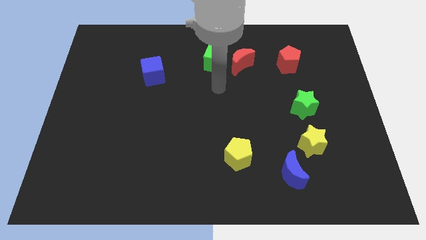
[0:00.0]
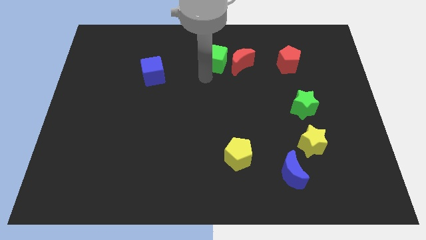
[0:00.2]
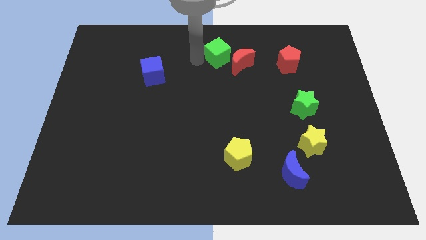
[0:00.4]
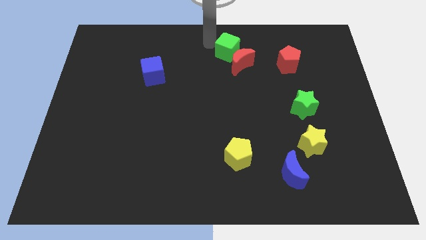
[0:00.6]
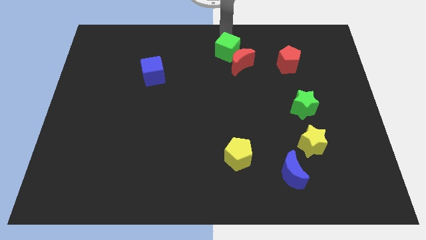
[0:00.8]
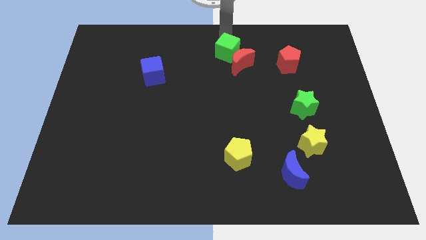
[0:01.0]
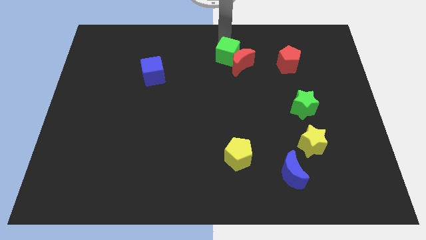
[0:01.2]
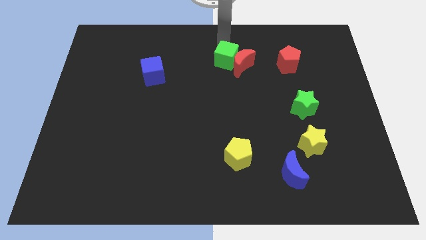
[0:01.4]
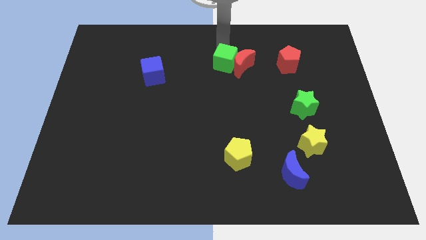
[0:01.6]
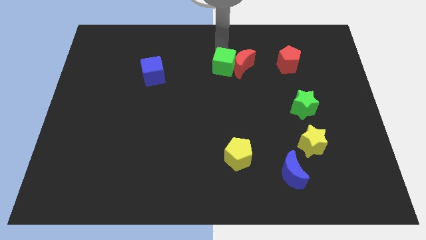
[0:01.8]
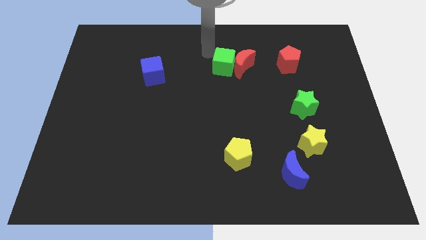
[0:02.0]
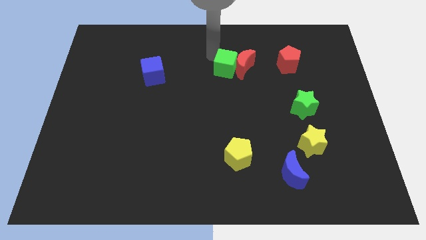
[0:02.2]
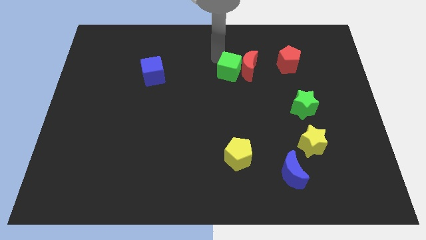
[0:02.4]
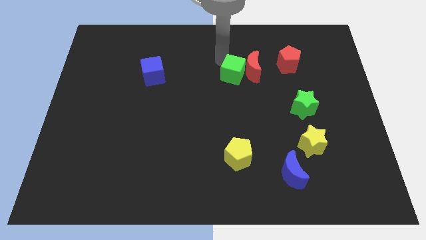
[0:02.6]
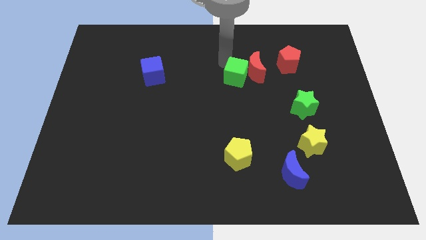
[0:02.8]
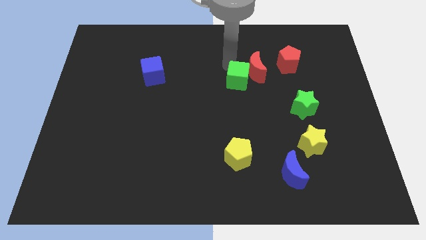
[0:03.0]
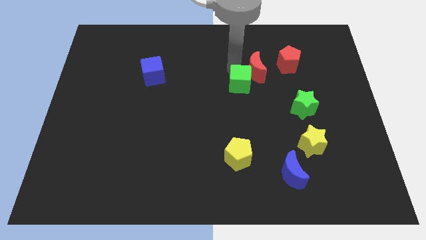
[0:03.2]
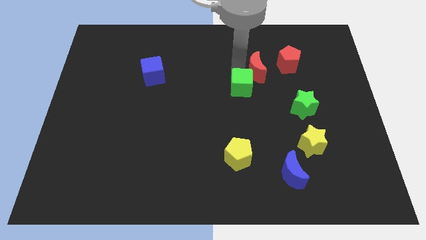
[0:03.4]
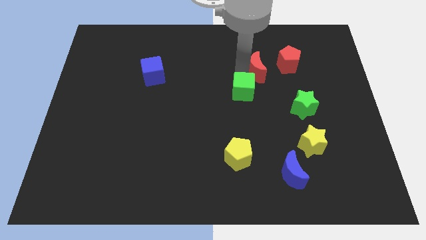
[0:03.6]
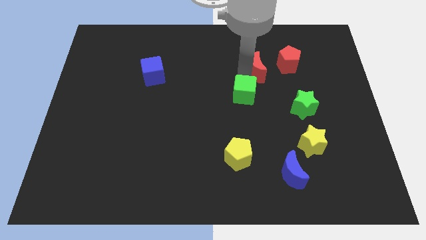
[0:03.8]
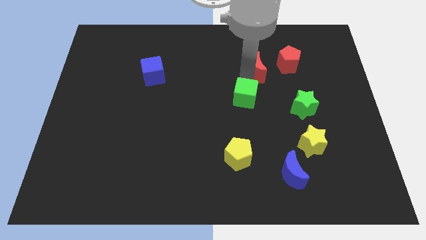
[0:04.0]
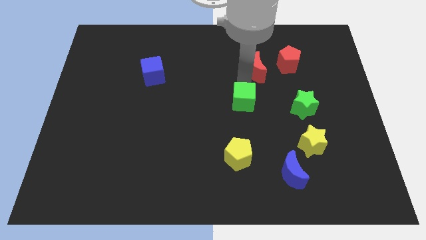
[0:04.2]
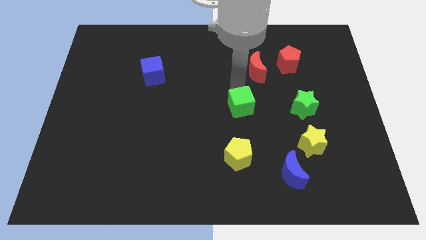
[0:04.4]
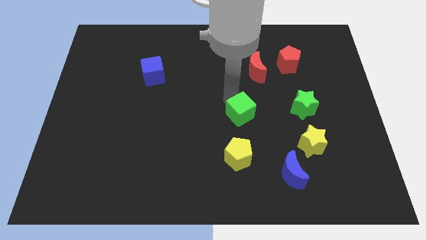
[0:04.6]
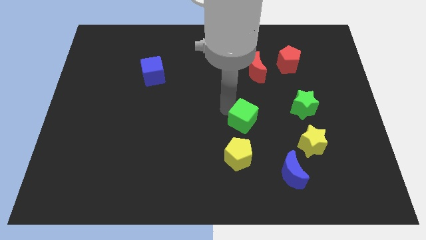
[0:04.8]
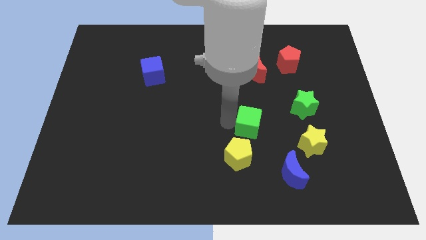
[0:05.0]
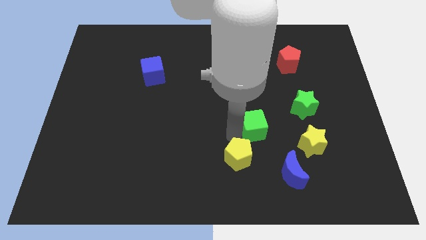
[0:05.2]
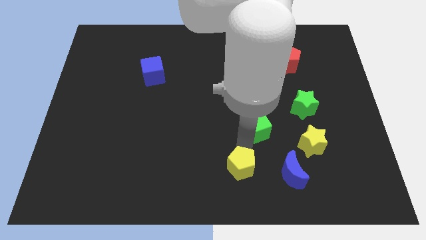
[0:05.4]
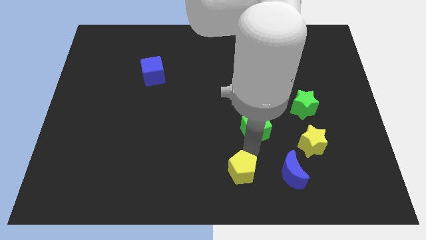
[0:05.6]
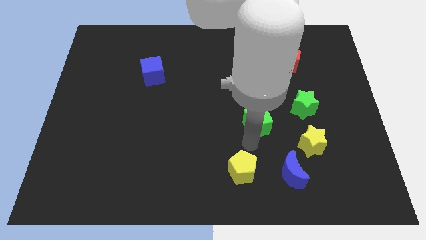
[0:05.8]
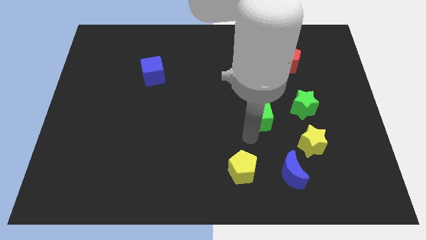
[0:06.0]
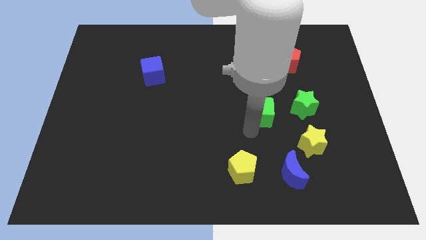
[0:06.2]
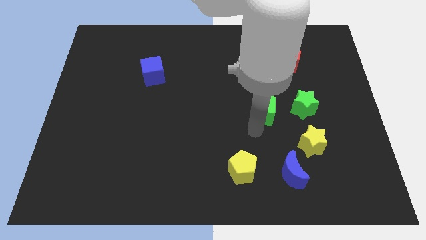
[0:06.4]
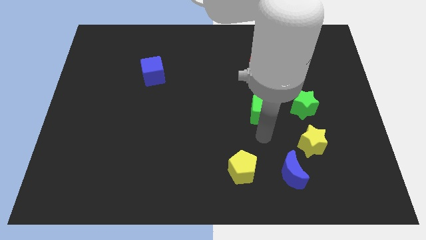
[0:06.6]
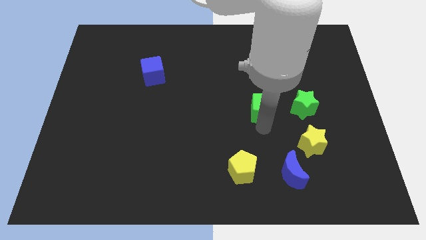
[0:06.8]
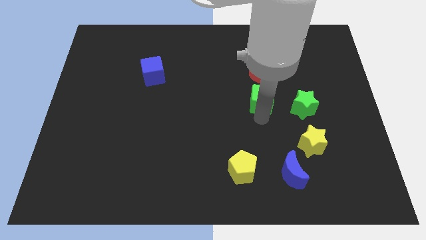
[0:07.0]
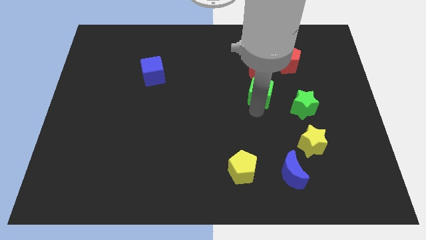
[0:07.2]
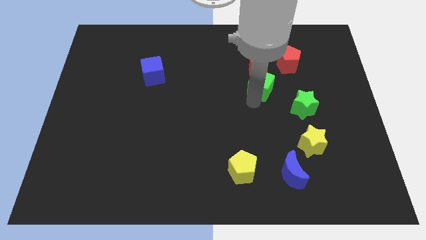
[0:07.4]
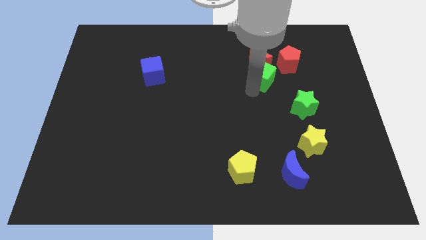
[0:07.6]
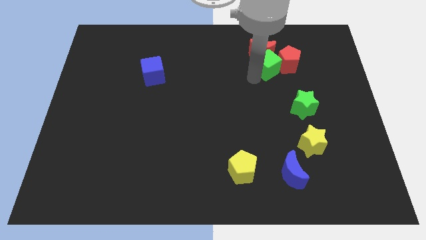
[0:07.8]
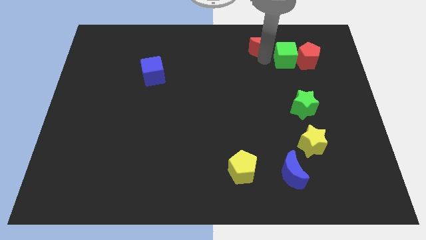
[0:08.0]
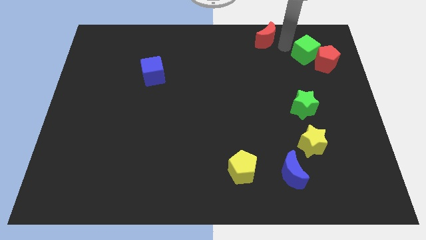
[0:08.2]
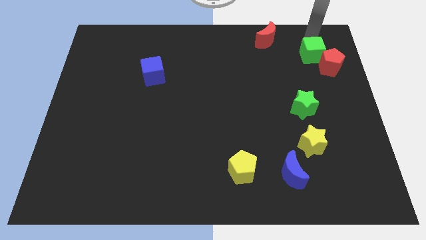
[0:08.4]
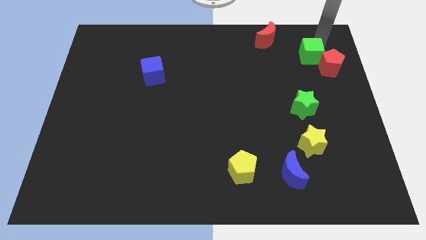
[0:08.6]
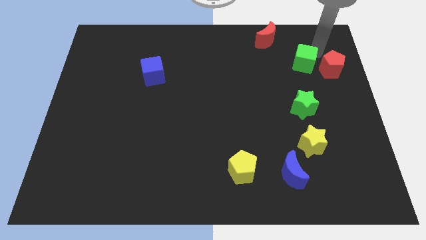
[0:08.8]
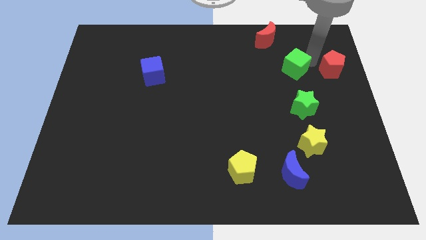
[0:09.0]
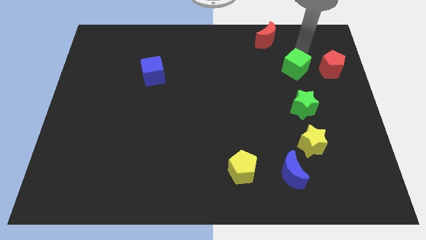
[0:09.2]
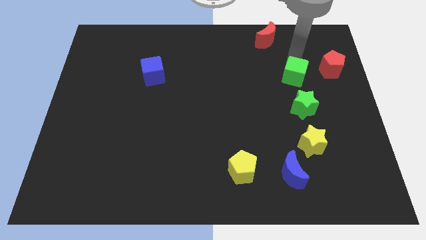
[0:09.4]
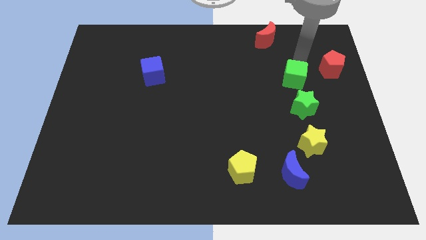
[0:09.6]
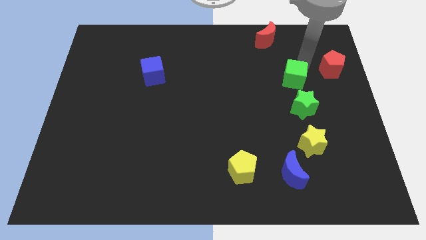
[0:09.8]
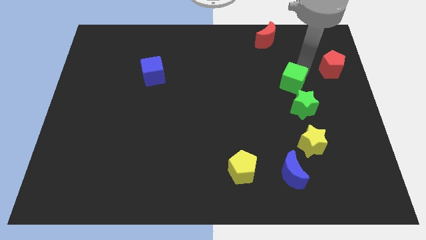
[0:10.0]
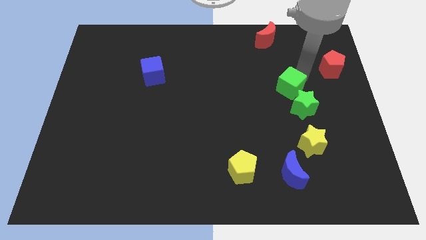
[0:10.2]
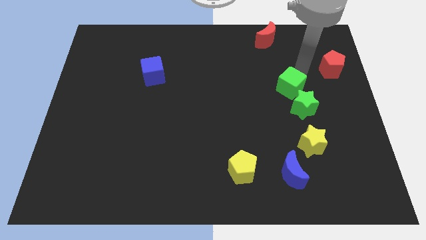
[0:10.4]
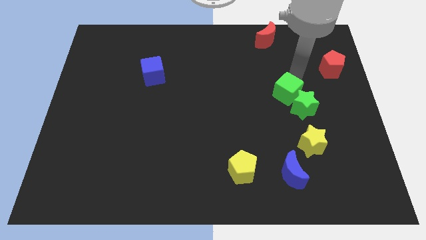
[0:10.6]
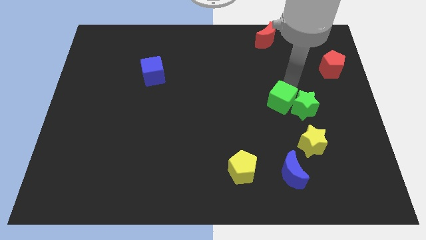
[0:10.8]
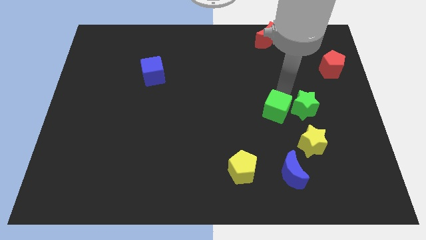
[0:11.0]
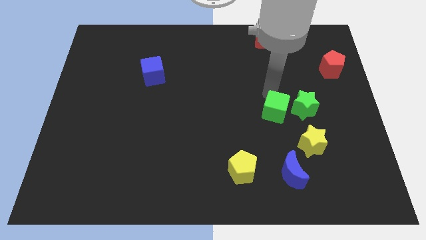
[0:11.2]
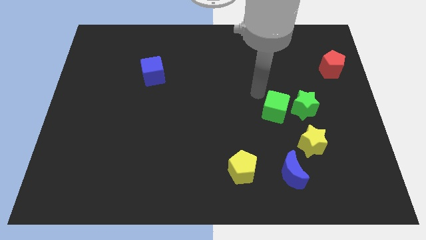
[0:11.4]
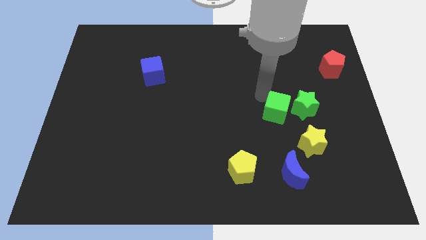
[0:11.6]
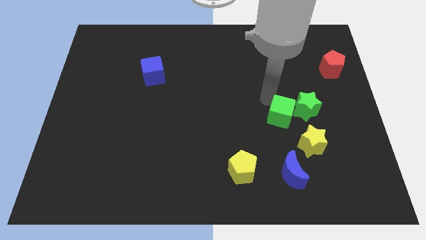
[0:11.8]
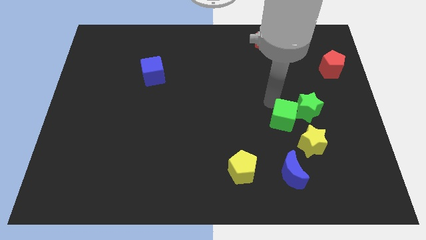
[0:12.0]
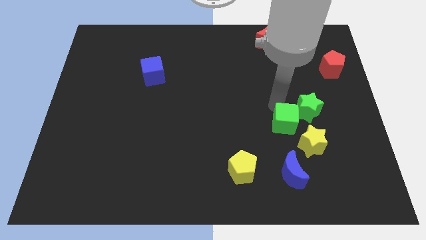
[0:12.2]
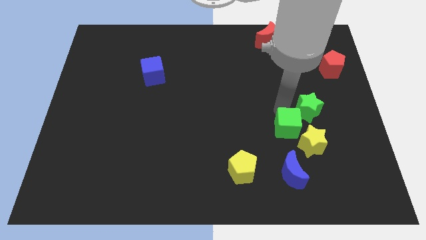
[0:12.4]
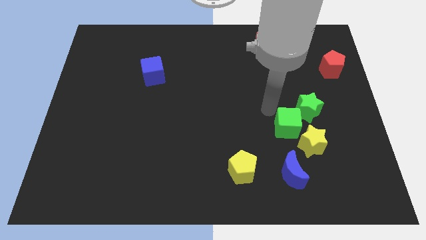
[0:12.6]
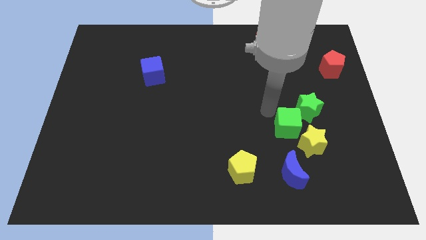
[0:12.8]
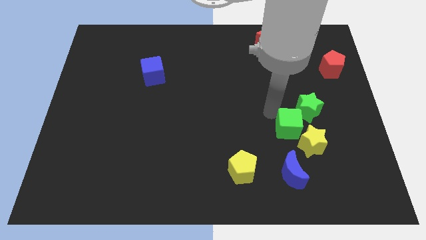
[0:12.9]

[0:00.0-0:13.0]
put the green cube close to the yellow star

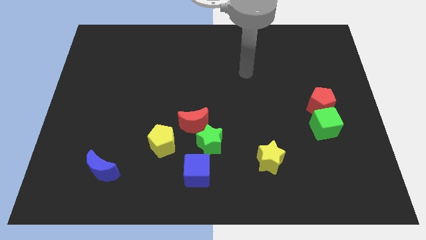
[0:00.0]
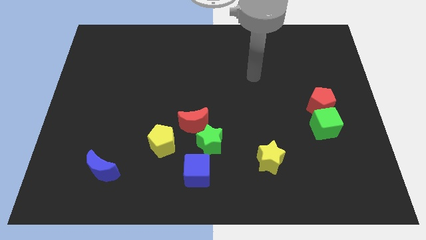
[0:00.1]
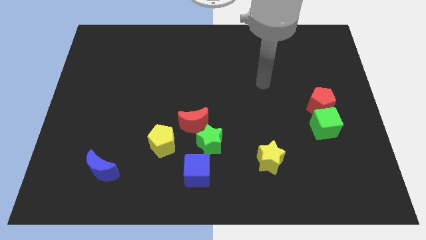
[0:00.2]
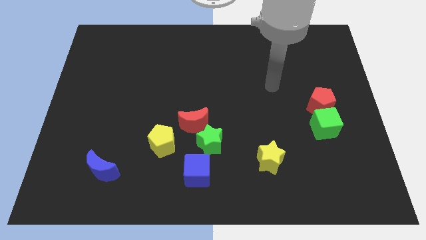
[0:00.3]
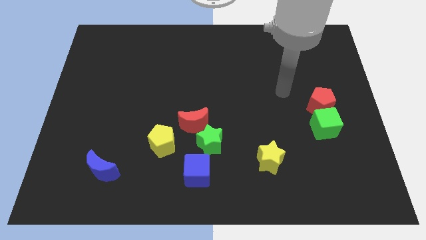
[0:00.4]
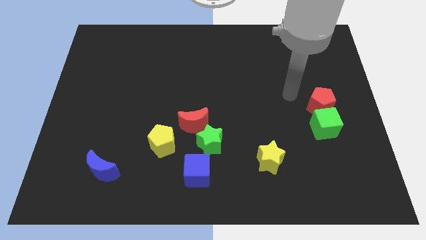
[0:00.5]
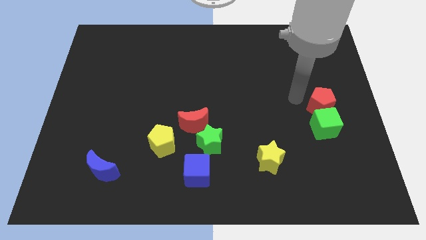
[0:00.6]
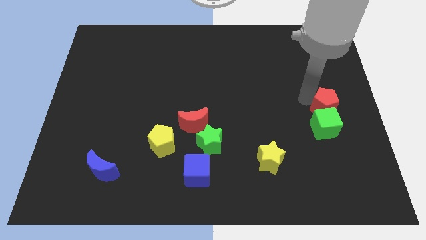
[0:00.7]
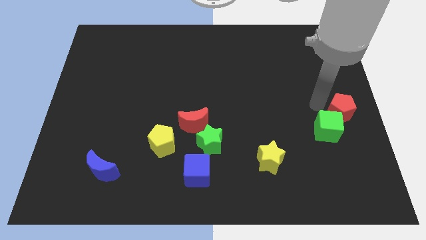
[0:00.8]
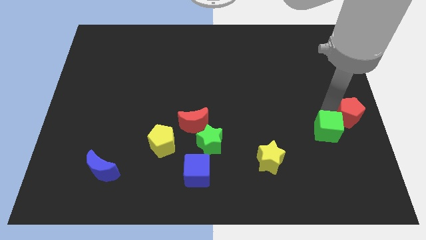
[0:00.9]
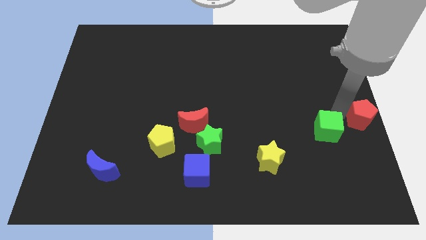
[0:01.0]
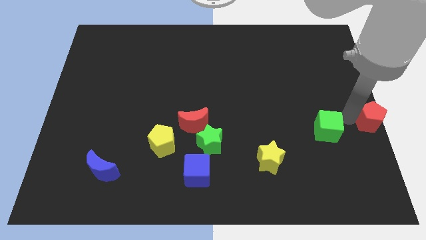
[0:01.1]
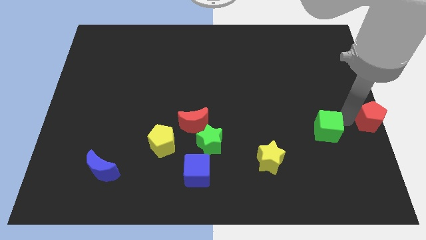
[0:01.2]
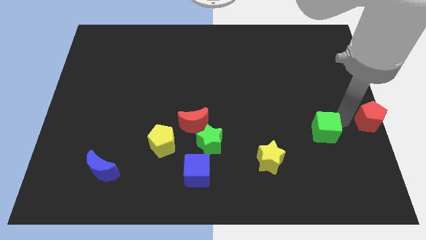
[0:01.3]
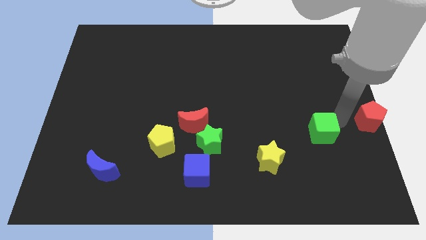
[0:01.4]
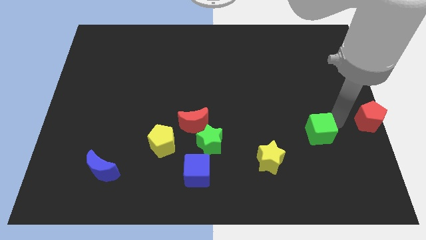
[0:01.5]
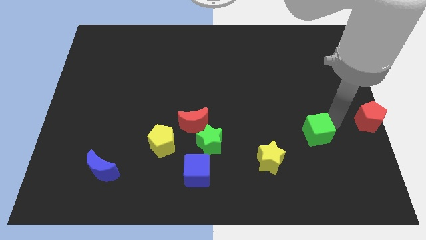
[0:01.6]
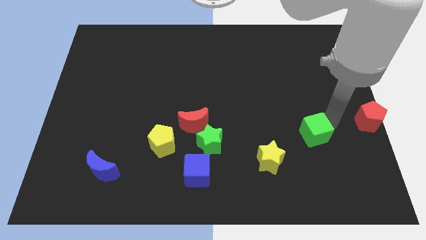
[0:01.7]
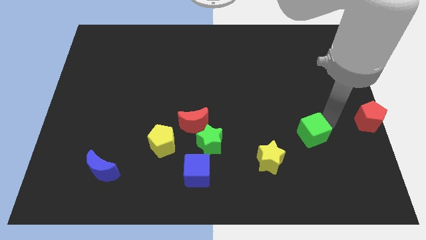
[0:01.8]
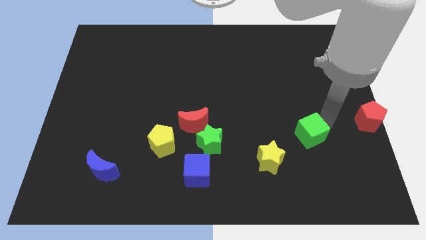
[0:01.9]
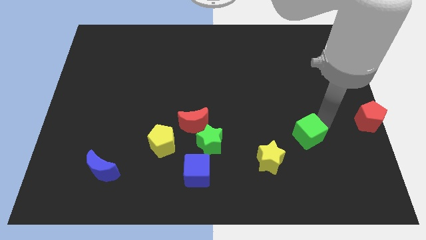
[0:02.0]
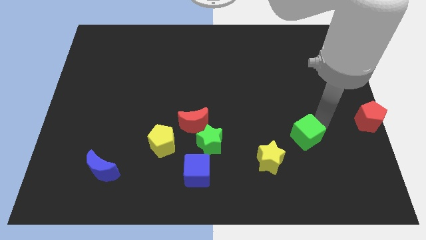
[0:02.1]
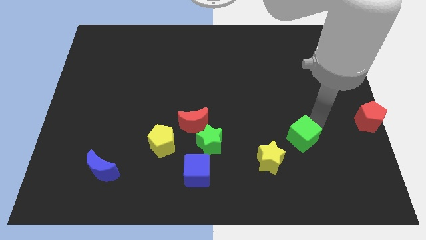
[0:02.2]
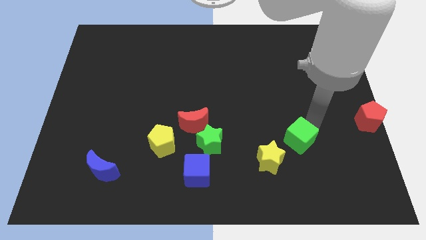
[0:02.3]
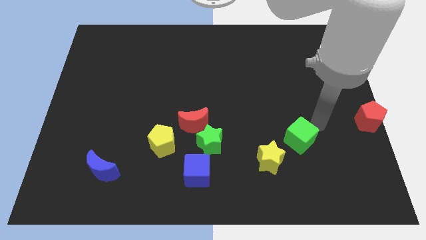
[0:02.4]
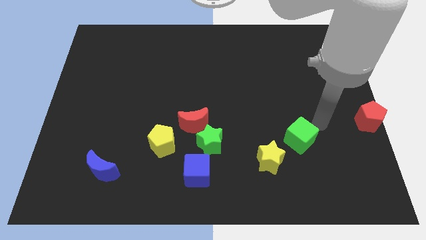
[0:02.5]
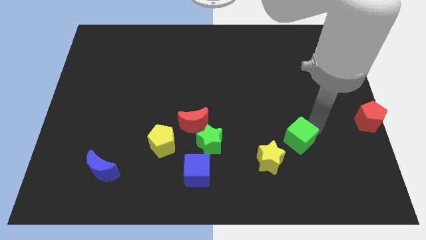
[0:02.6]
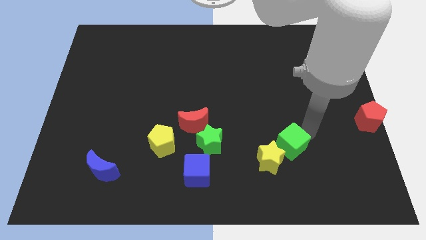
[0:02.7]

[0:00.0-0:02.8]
slide the green cube close to the yellow star
